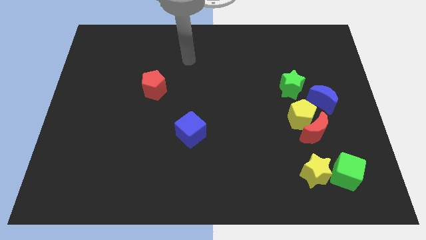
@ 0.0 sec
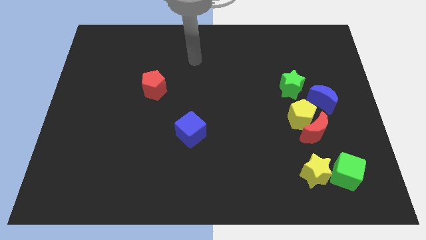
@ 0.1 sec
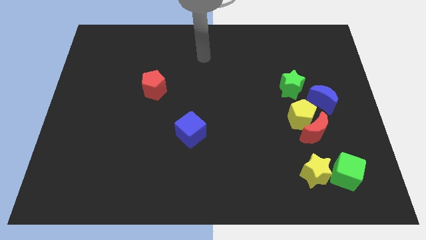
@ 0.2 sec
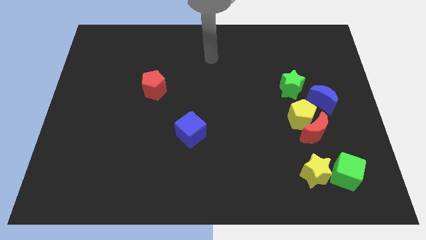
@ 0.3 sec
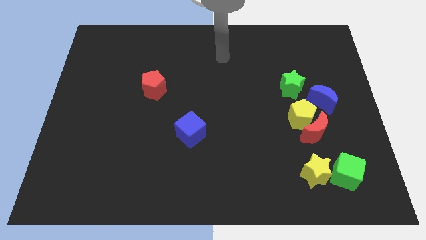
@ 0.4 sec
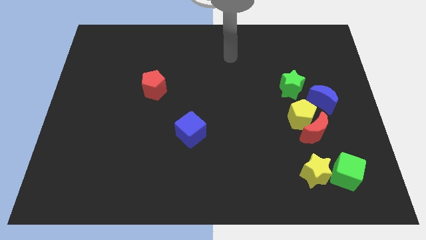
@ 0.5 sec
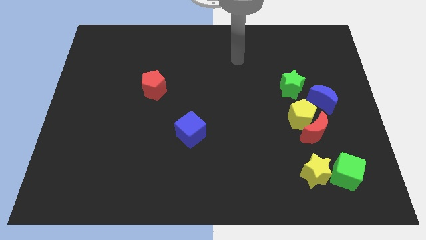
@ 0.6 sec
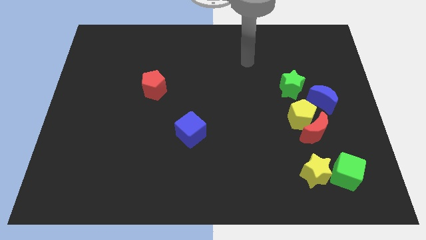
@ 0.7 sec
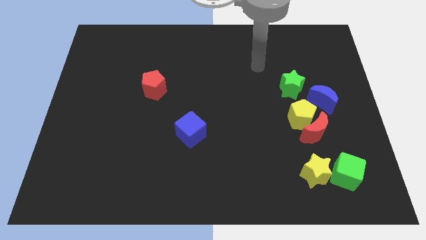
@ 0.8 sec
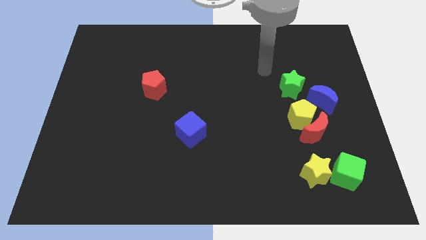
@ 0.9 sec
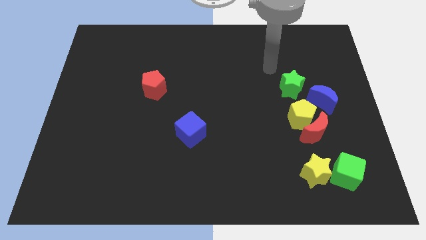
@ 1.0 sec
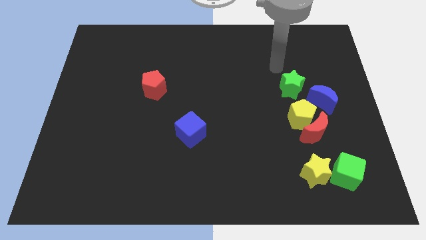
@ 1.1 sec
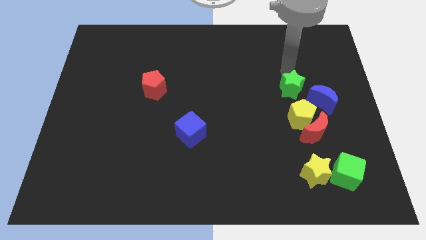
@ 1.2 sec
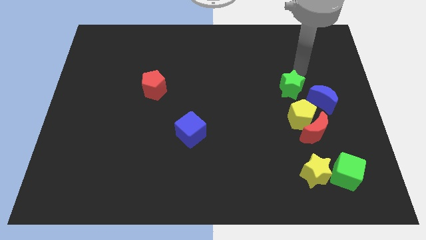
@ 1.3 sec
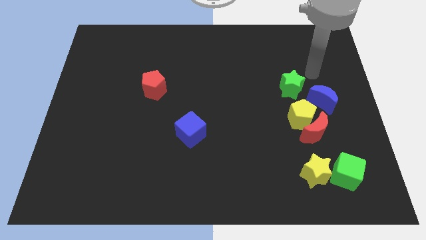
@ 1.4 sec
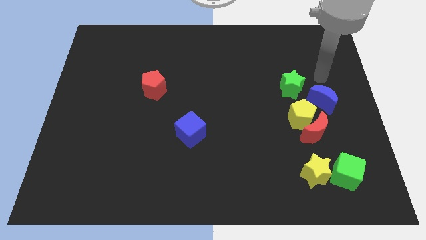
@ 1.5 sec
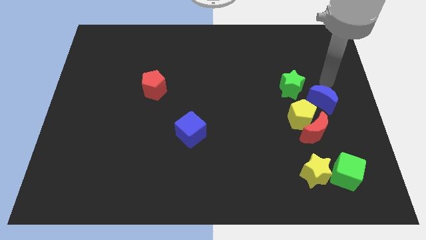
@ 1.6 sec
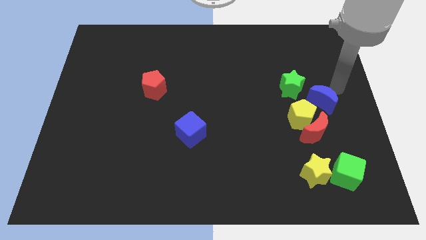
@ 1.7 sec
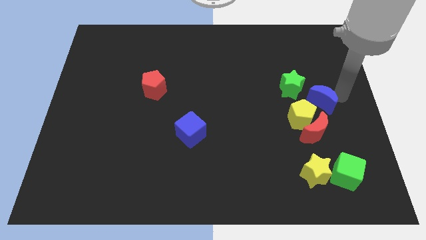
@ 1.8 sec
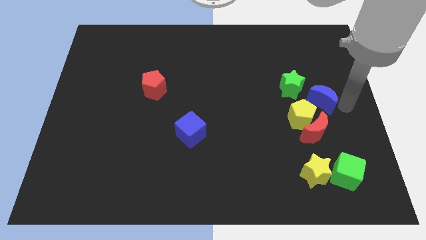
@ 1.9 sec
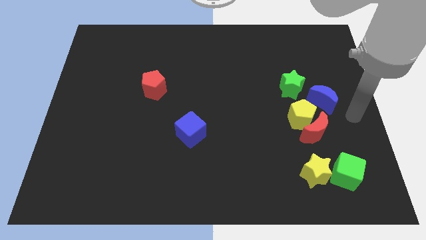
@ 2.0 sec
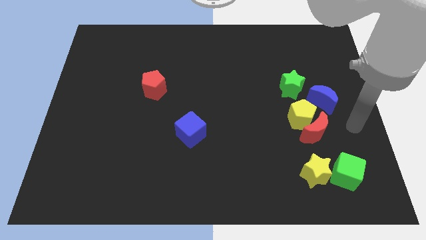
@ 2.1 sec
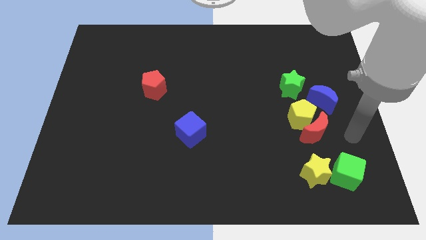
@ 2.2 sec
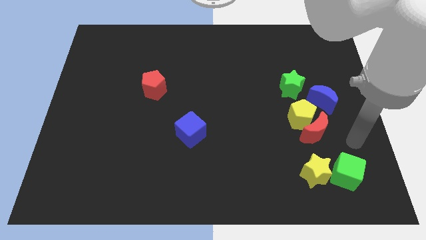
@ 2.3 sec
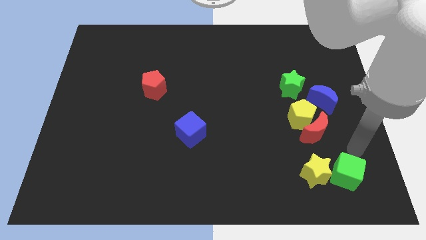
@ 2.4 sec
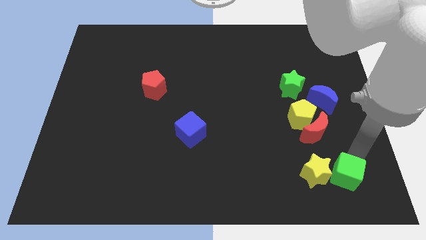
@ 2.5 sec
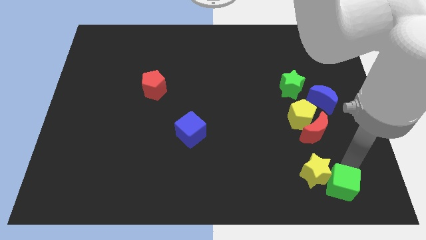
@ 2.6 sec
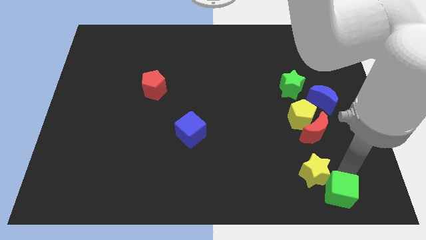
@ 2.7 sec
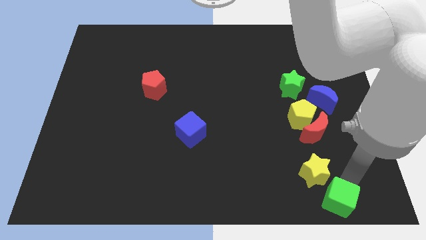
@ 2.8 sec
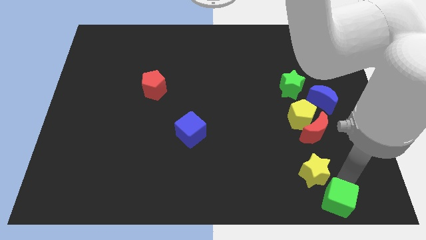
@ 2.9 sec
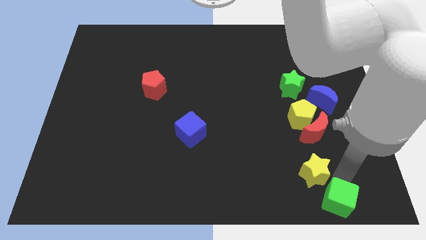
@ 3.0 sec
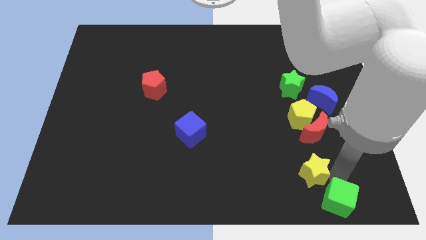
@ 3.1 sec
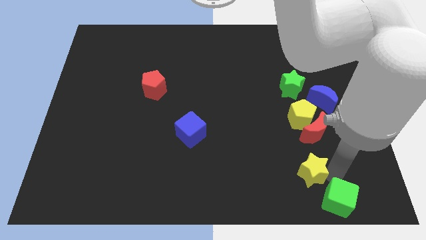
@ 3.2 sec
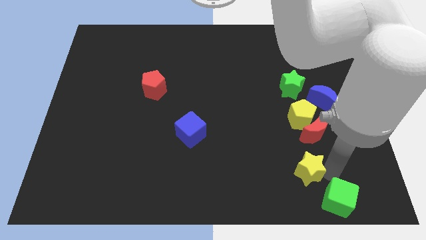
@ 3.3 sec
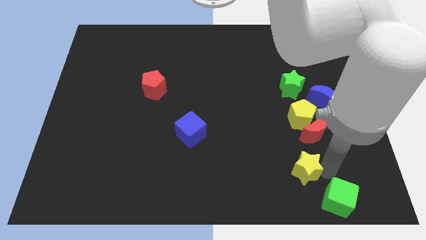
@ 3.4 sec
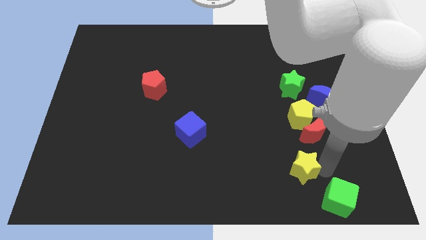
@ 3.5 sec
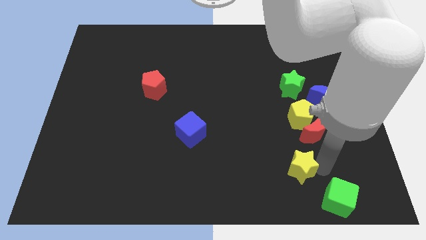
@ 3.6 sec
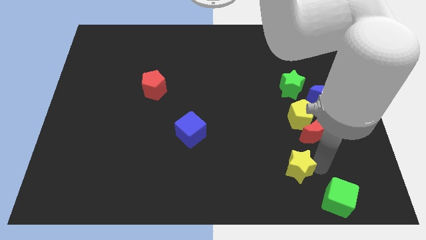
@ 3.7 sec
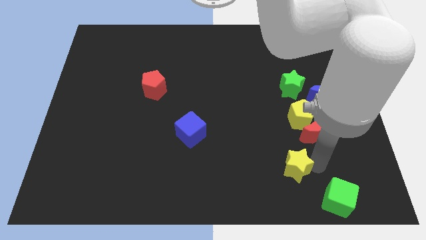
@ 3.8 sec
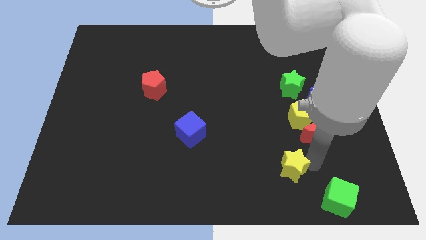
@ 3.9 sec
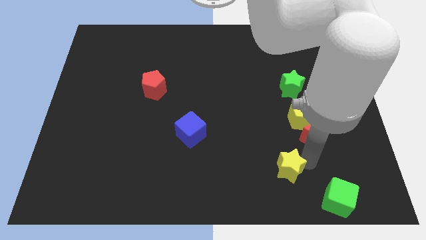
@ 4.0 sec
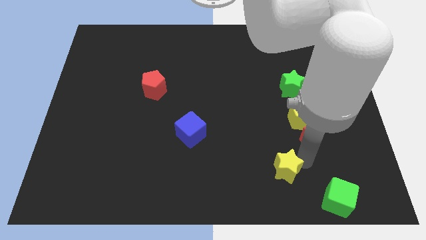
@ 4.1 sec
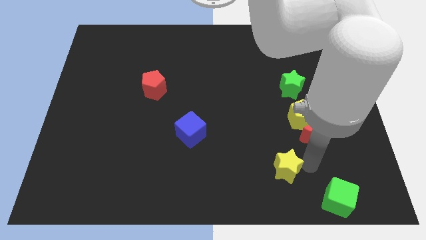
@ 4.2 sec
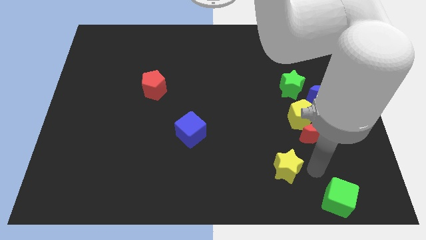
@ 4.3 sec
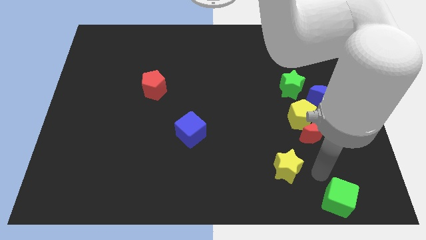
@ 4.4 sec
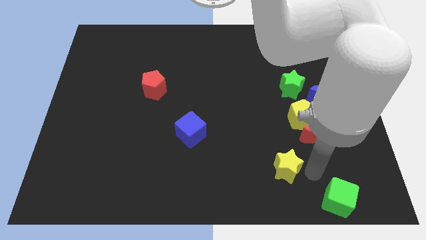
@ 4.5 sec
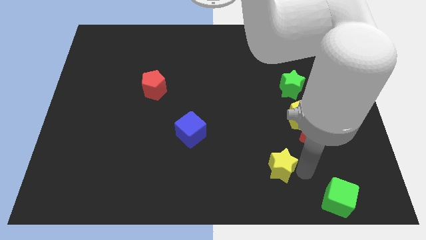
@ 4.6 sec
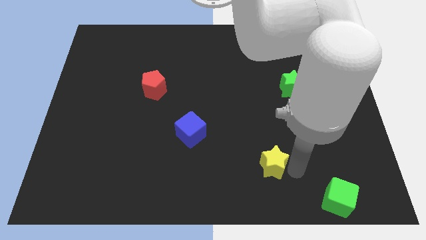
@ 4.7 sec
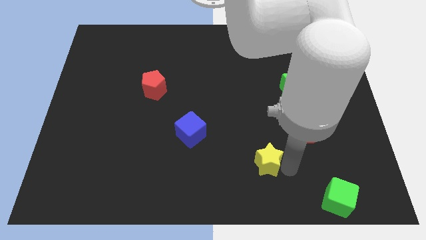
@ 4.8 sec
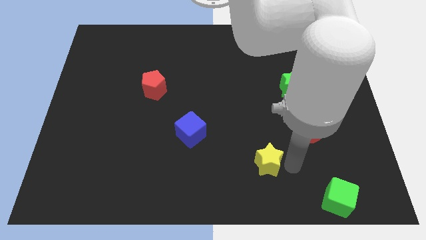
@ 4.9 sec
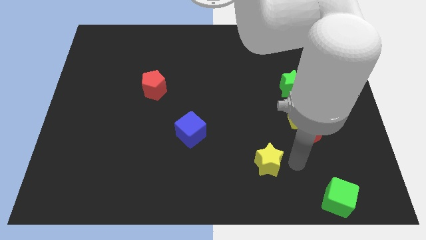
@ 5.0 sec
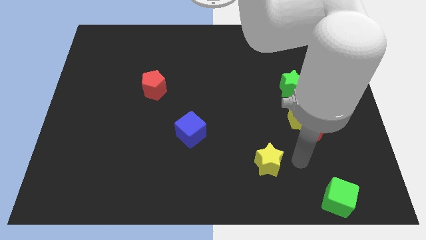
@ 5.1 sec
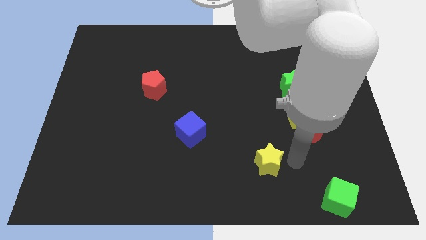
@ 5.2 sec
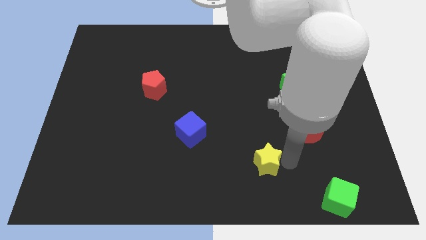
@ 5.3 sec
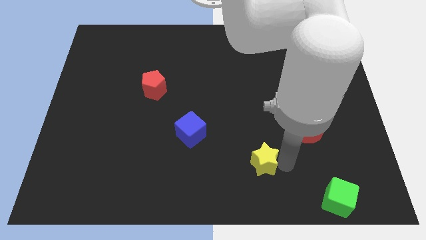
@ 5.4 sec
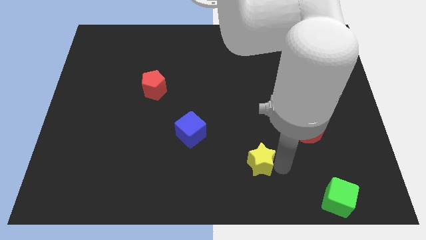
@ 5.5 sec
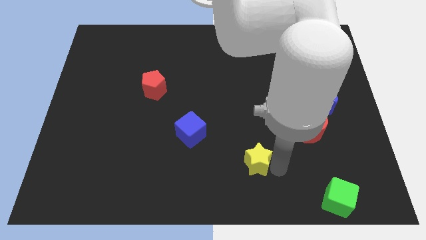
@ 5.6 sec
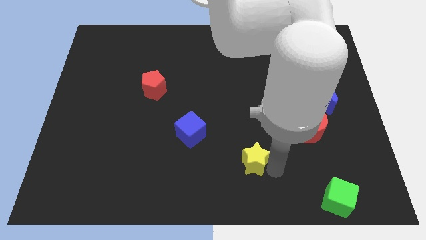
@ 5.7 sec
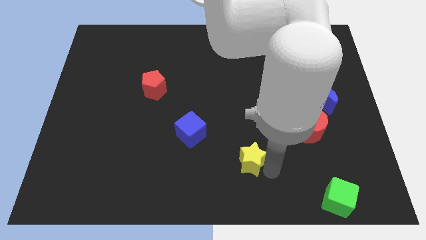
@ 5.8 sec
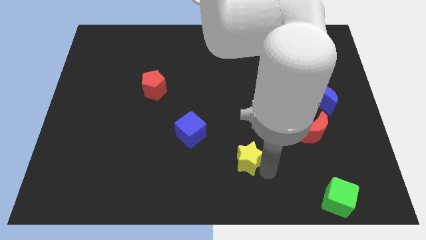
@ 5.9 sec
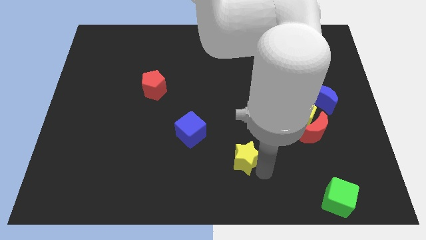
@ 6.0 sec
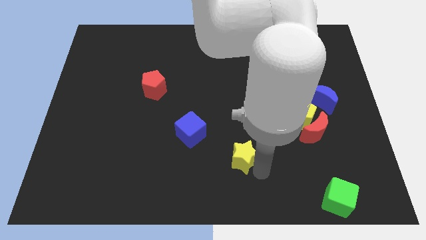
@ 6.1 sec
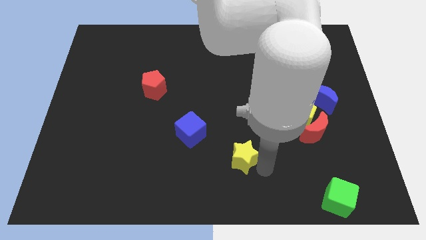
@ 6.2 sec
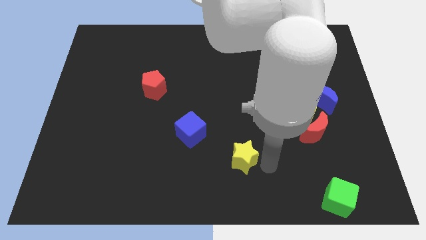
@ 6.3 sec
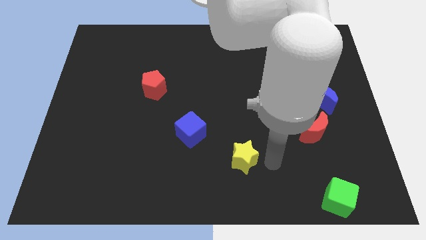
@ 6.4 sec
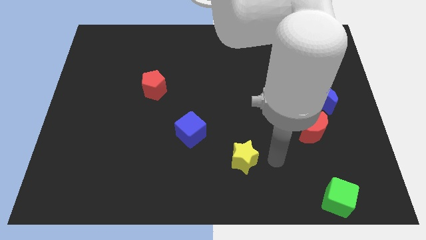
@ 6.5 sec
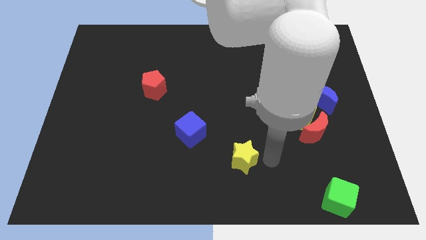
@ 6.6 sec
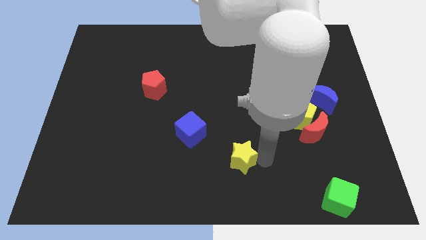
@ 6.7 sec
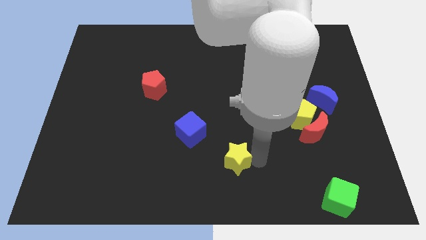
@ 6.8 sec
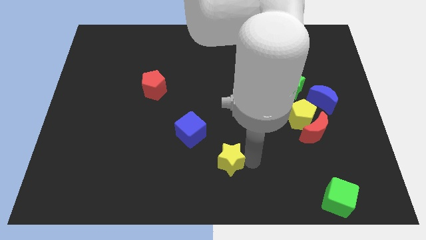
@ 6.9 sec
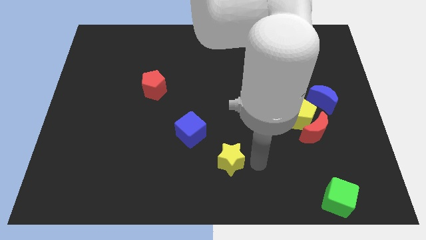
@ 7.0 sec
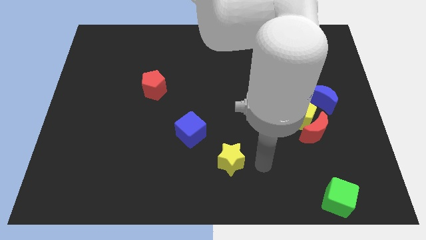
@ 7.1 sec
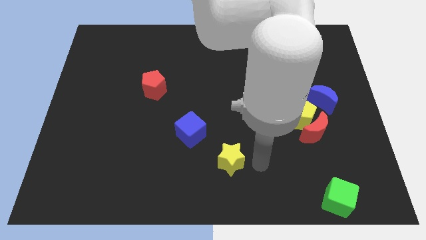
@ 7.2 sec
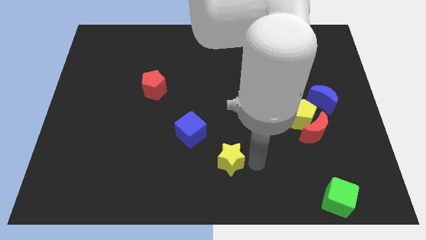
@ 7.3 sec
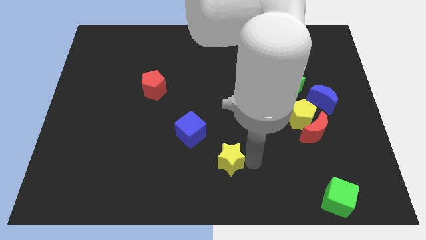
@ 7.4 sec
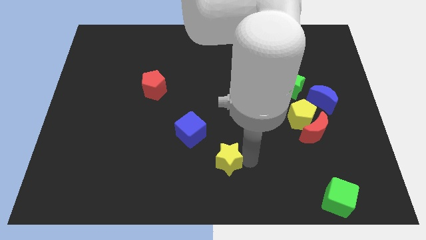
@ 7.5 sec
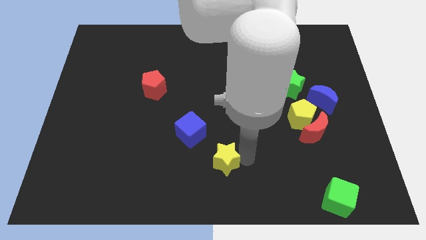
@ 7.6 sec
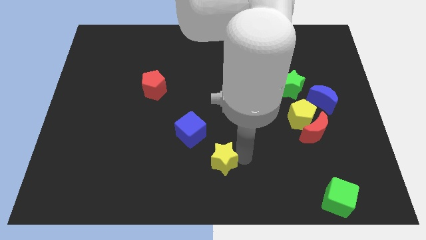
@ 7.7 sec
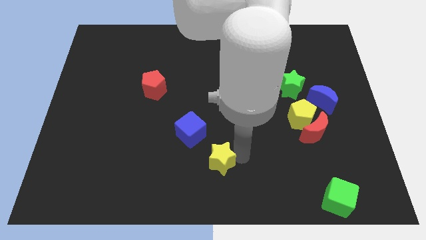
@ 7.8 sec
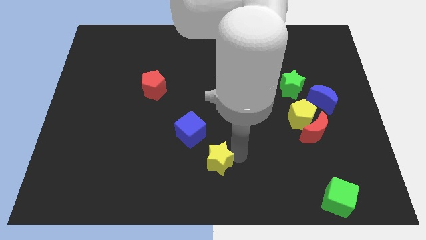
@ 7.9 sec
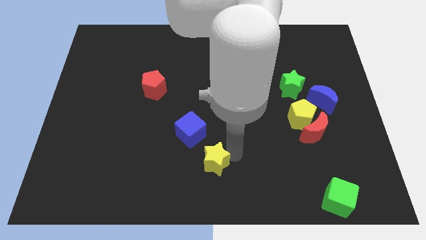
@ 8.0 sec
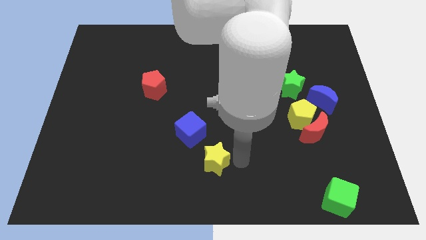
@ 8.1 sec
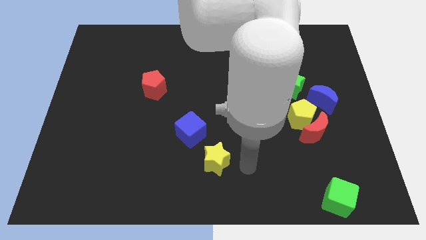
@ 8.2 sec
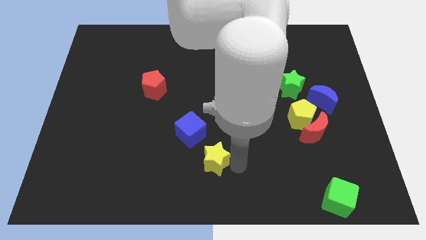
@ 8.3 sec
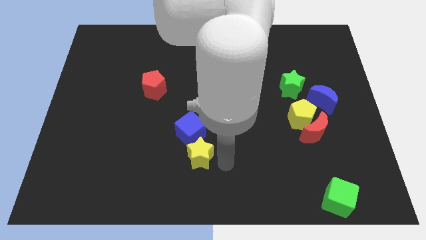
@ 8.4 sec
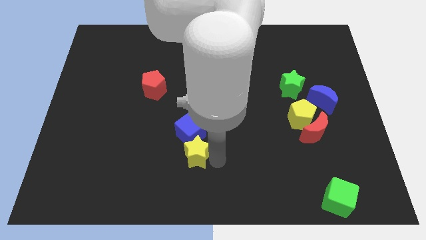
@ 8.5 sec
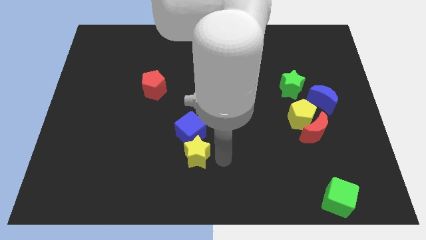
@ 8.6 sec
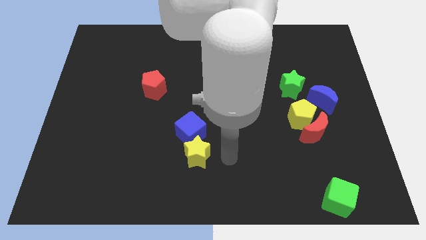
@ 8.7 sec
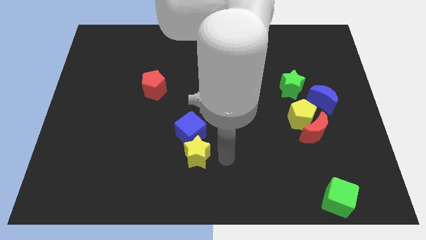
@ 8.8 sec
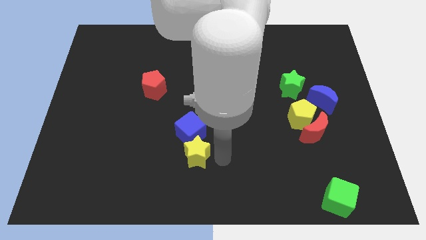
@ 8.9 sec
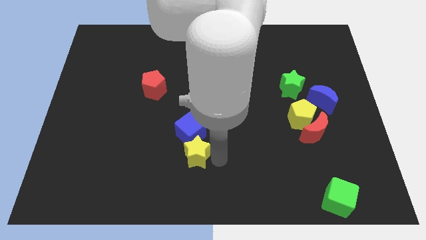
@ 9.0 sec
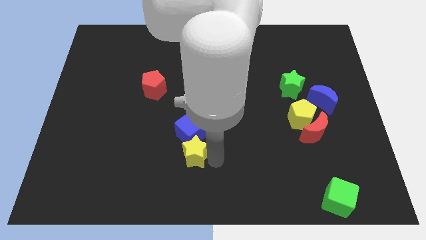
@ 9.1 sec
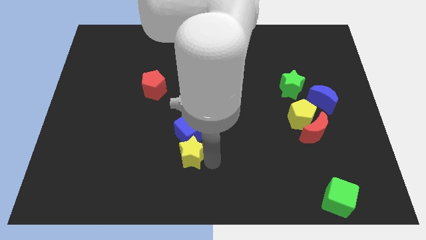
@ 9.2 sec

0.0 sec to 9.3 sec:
put the yellow star to the bottom left of the blue cube
